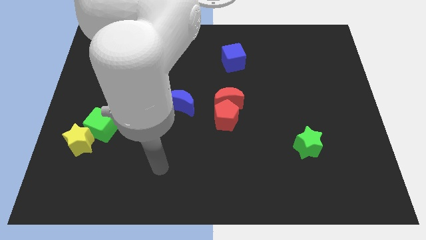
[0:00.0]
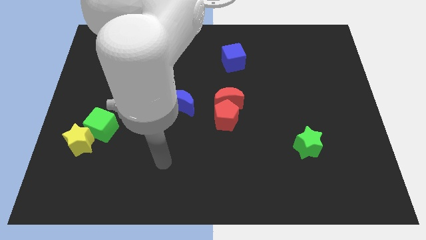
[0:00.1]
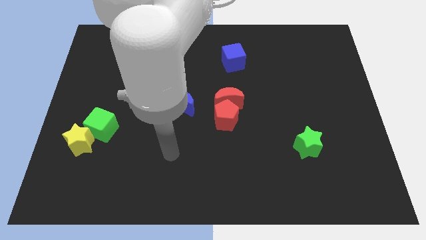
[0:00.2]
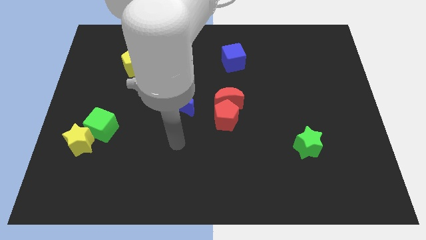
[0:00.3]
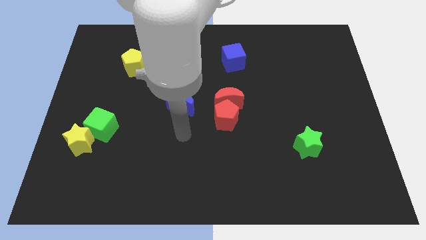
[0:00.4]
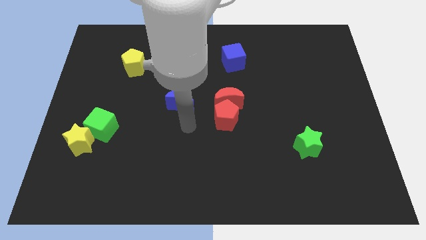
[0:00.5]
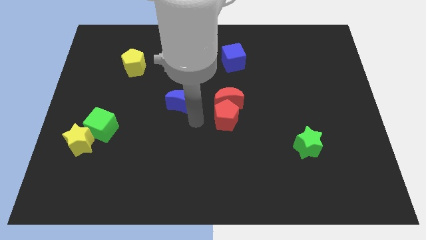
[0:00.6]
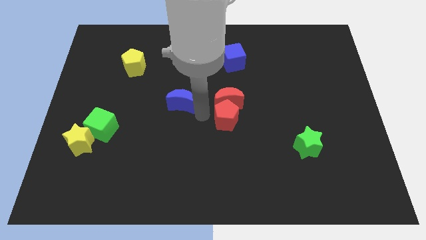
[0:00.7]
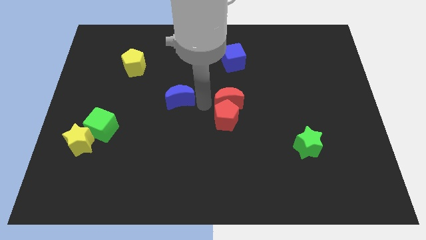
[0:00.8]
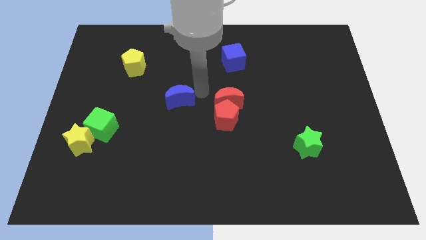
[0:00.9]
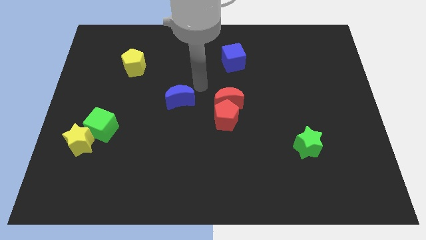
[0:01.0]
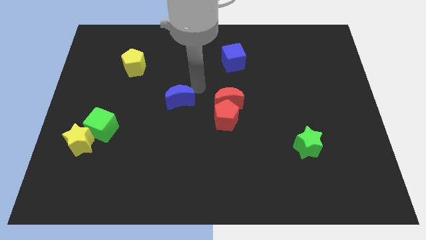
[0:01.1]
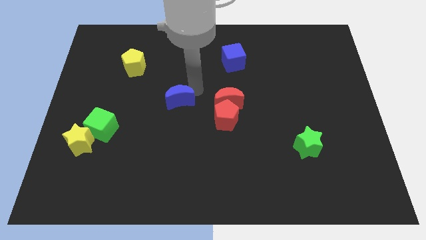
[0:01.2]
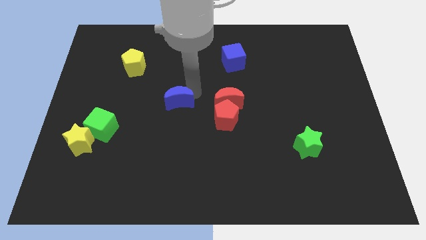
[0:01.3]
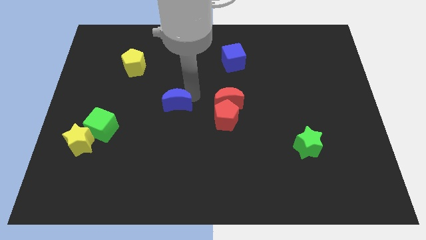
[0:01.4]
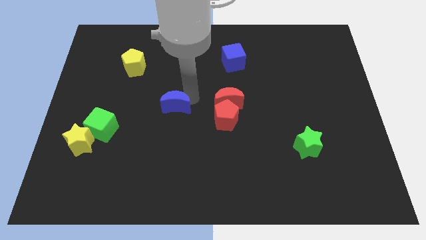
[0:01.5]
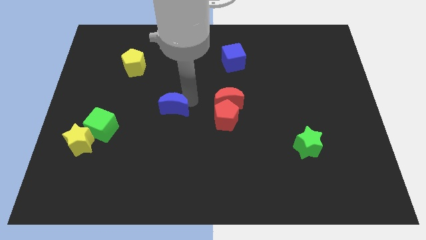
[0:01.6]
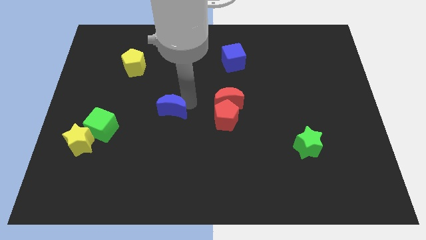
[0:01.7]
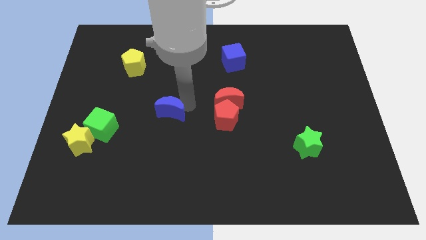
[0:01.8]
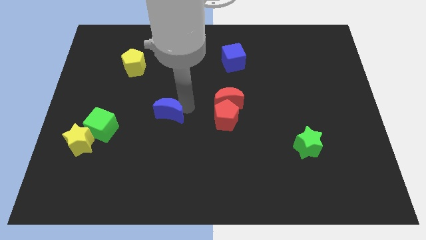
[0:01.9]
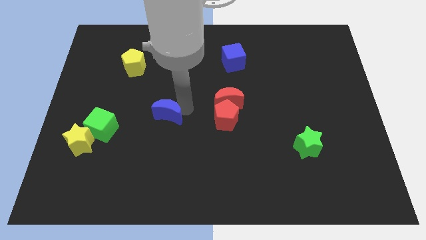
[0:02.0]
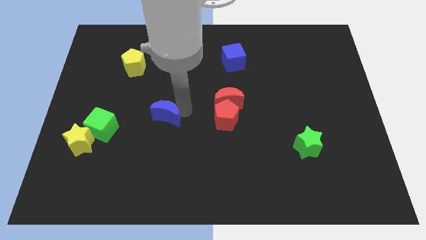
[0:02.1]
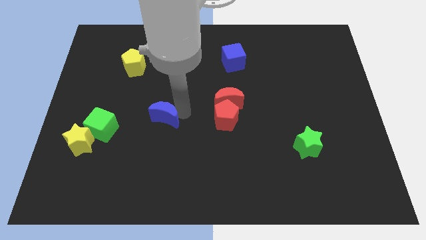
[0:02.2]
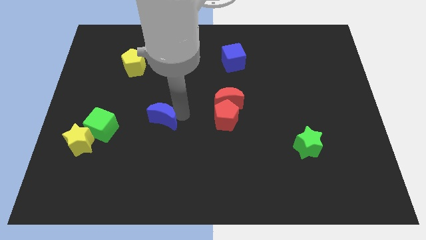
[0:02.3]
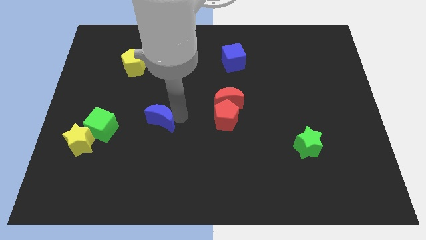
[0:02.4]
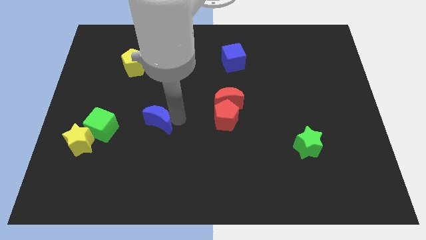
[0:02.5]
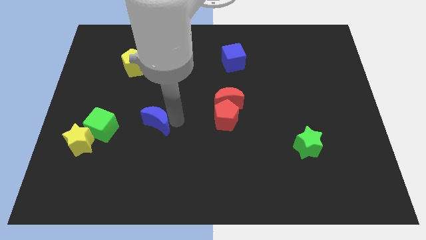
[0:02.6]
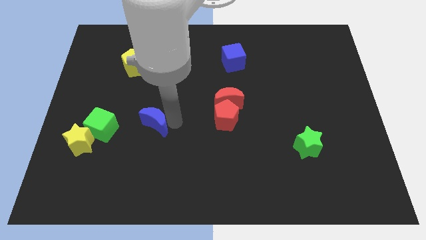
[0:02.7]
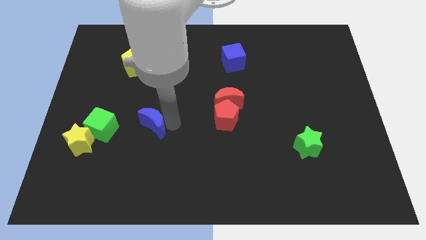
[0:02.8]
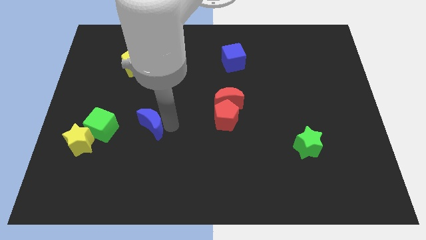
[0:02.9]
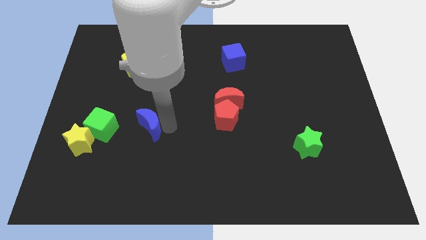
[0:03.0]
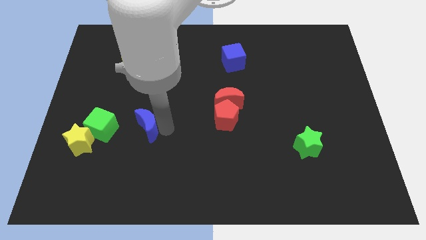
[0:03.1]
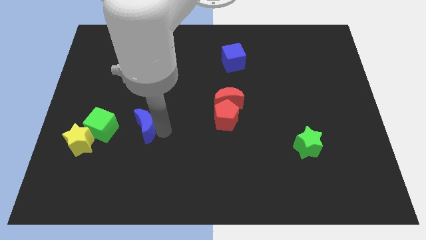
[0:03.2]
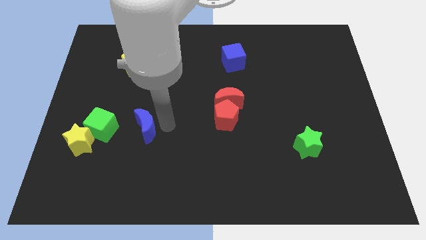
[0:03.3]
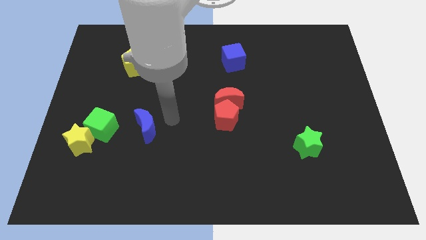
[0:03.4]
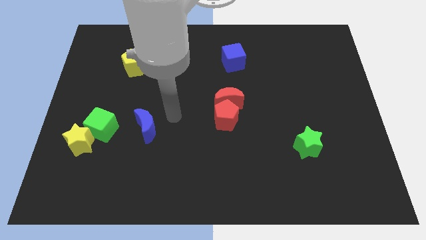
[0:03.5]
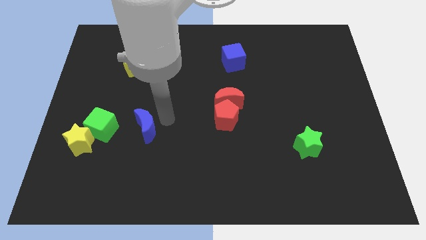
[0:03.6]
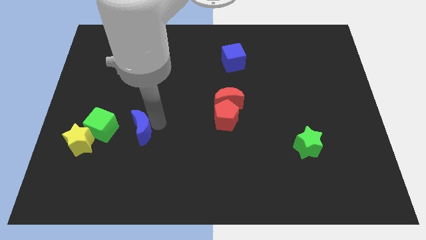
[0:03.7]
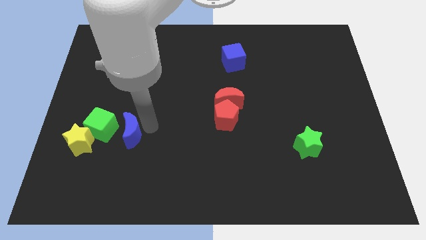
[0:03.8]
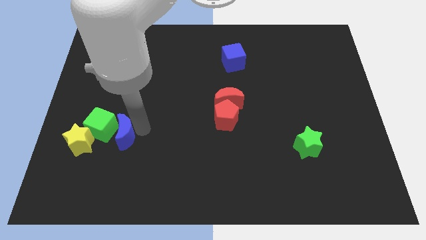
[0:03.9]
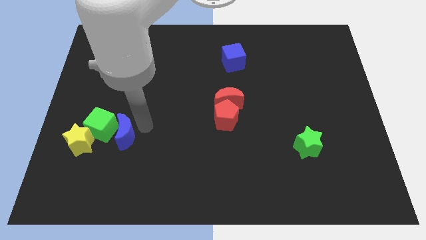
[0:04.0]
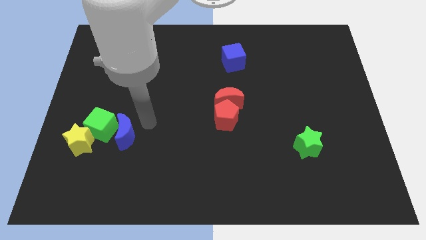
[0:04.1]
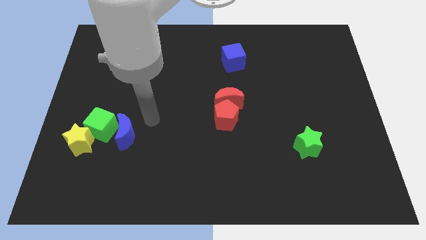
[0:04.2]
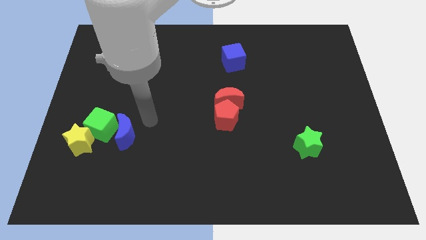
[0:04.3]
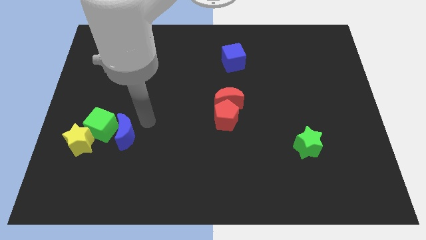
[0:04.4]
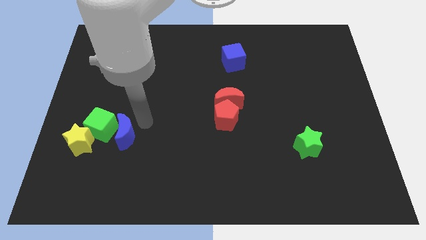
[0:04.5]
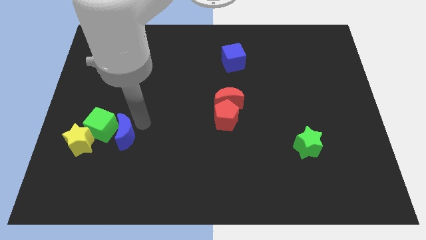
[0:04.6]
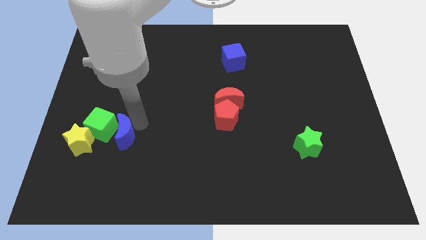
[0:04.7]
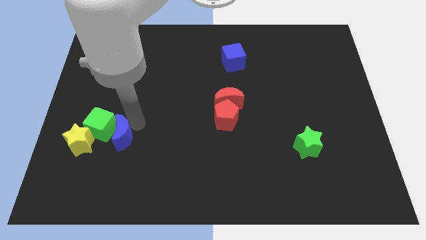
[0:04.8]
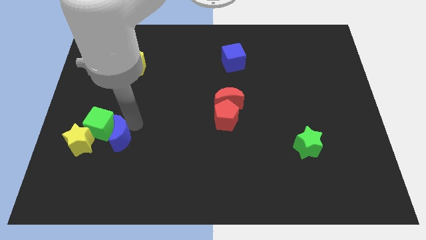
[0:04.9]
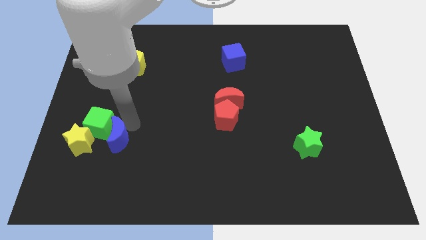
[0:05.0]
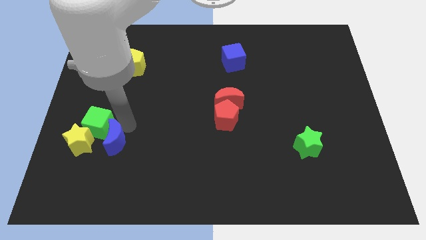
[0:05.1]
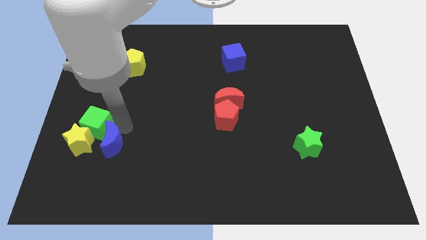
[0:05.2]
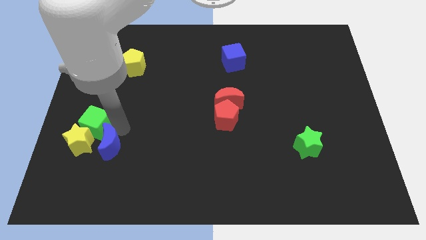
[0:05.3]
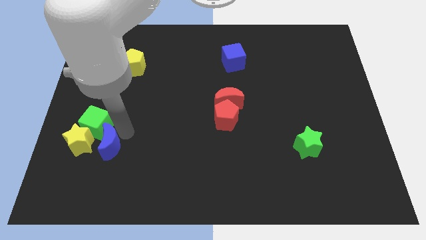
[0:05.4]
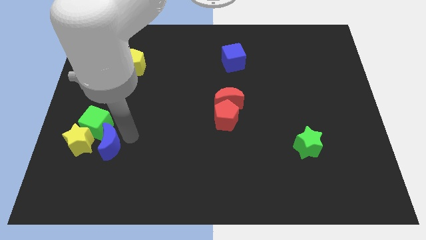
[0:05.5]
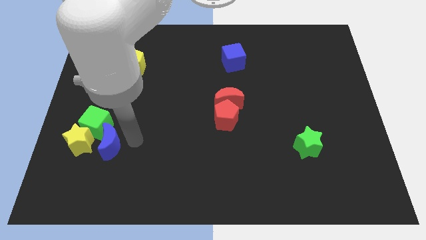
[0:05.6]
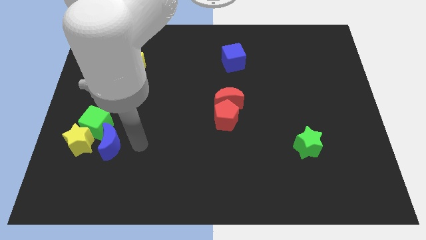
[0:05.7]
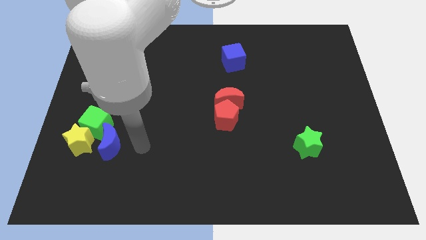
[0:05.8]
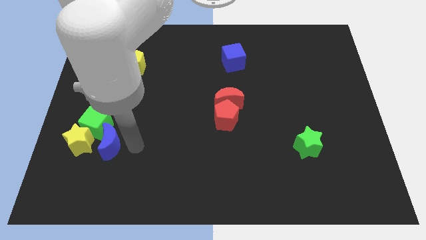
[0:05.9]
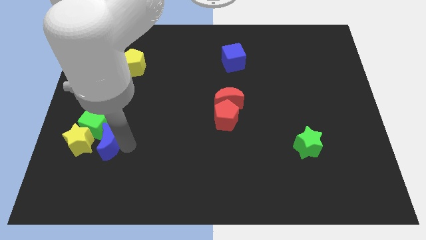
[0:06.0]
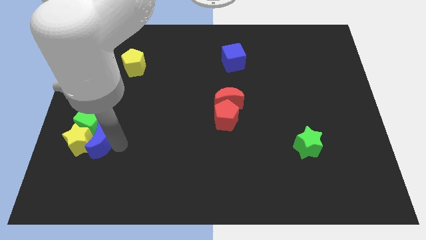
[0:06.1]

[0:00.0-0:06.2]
put the blue moon next to the yellow star

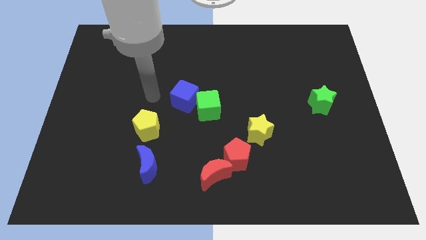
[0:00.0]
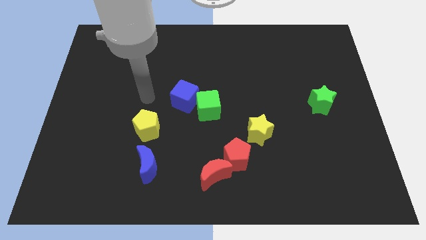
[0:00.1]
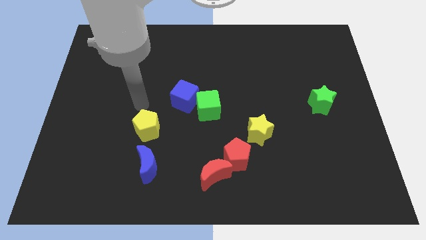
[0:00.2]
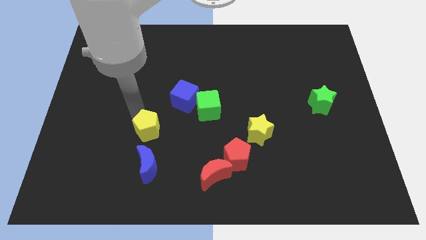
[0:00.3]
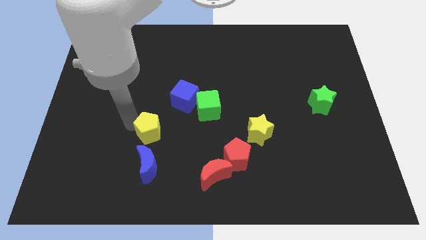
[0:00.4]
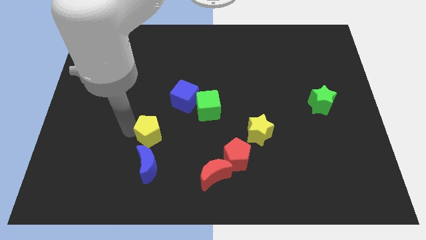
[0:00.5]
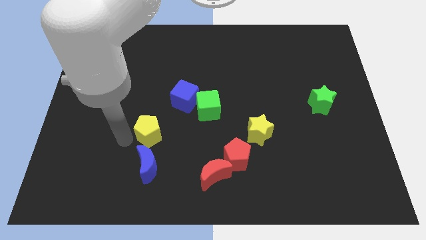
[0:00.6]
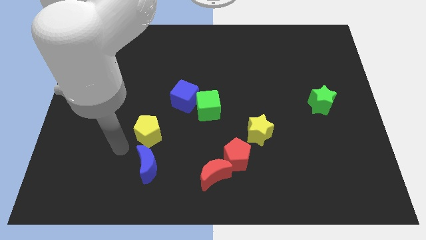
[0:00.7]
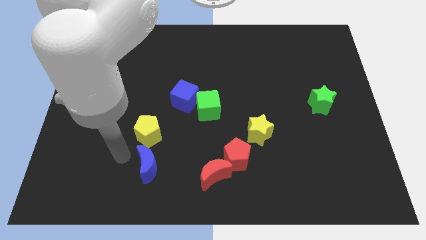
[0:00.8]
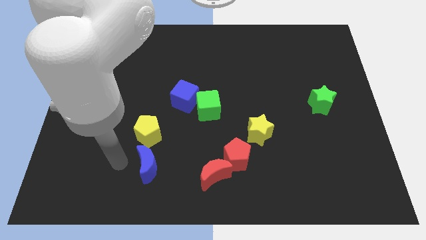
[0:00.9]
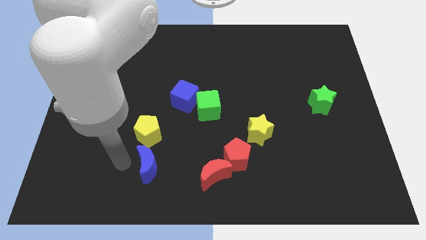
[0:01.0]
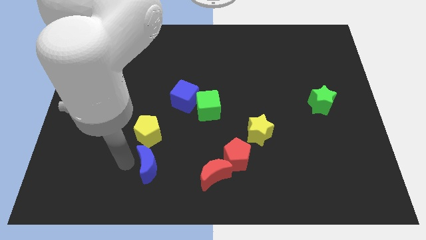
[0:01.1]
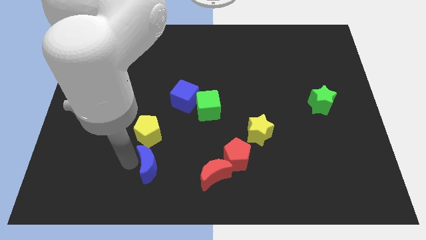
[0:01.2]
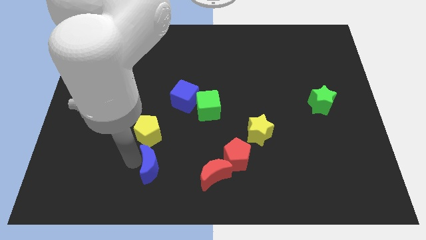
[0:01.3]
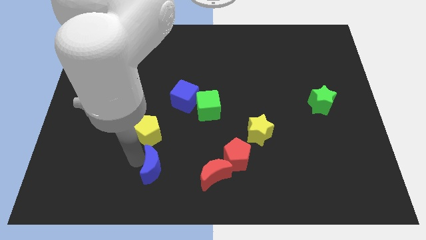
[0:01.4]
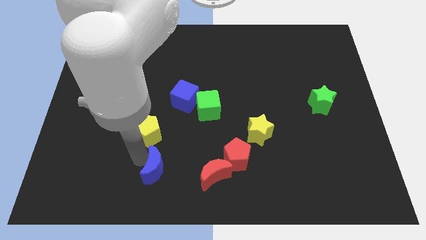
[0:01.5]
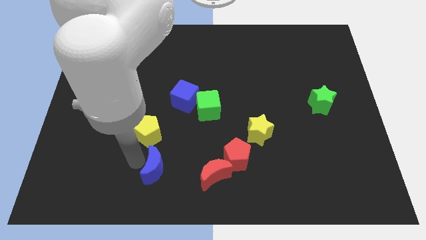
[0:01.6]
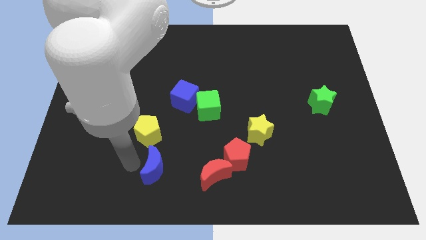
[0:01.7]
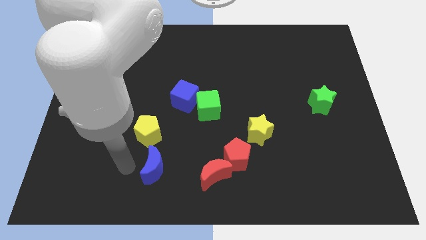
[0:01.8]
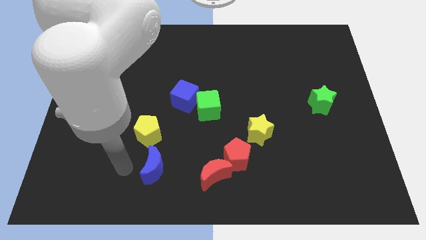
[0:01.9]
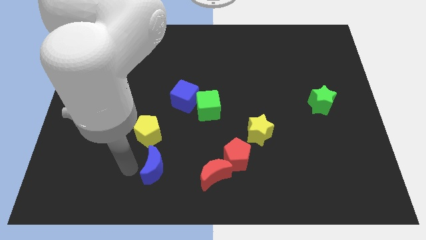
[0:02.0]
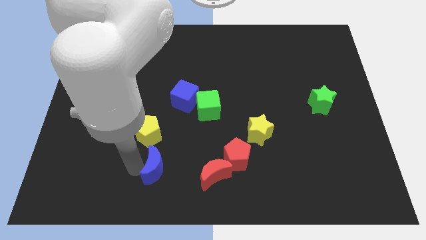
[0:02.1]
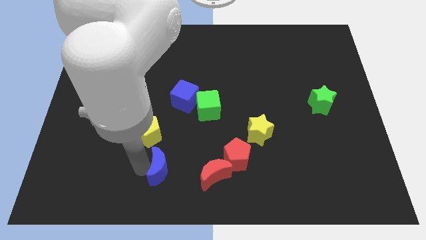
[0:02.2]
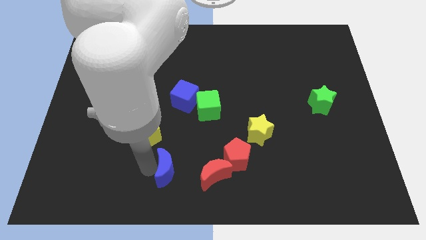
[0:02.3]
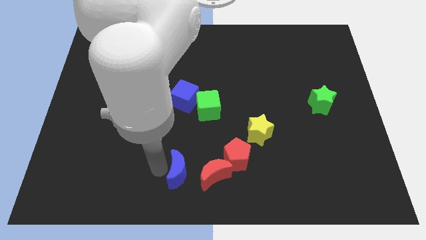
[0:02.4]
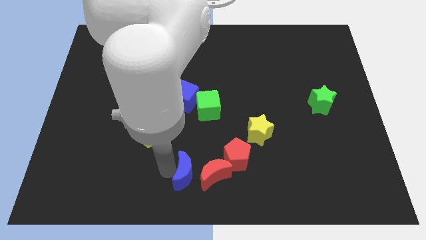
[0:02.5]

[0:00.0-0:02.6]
move the blue moon towards the red moon
